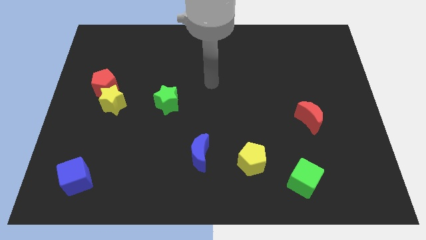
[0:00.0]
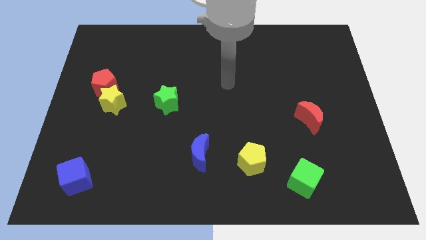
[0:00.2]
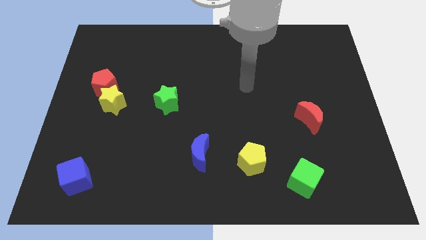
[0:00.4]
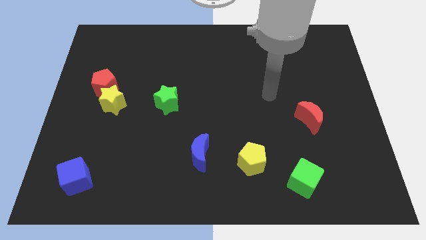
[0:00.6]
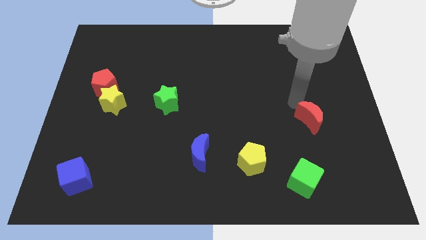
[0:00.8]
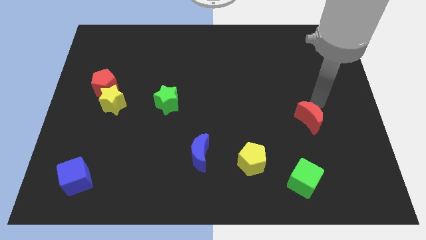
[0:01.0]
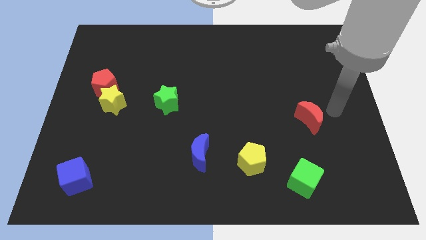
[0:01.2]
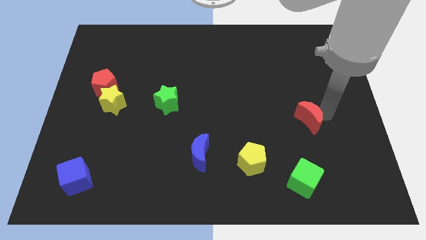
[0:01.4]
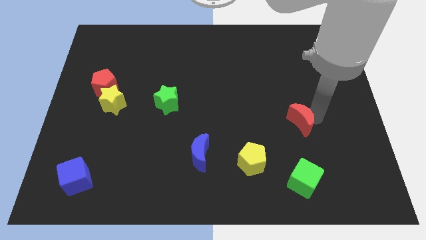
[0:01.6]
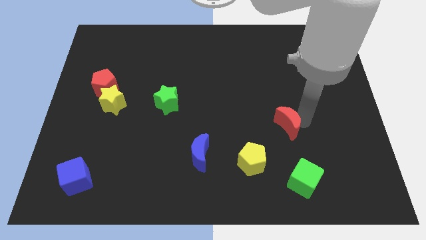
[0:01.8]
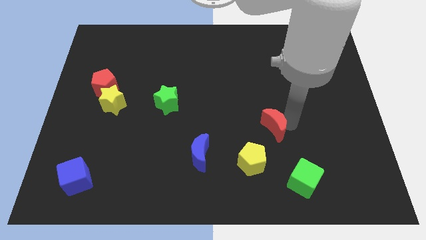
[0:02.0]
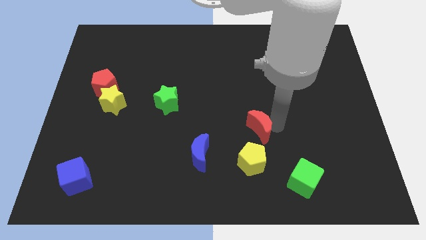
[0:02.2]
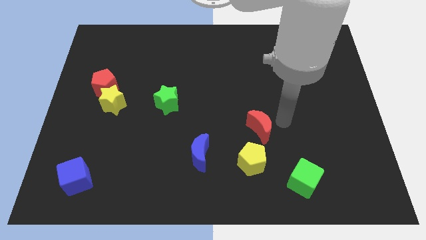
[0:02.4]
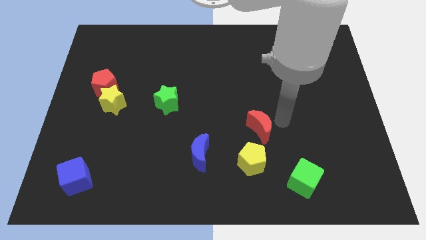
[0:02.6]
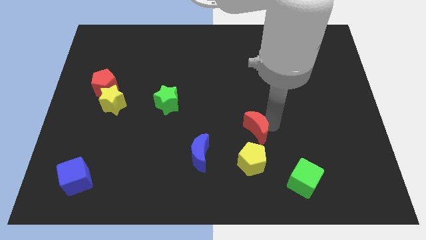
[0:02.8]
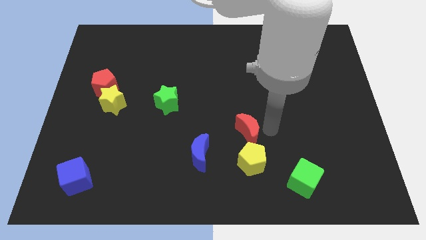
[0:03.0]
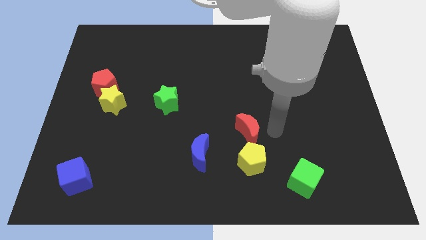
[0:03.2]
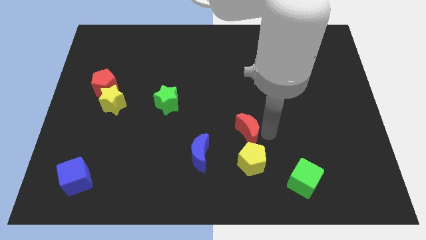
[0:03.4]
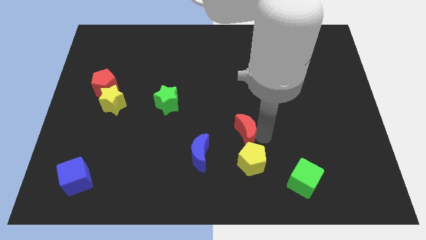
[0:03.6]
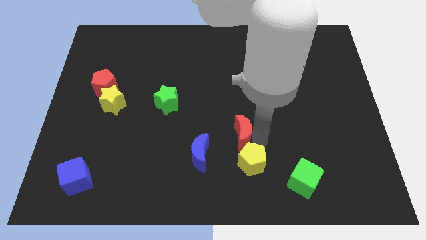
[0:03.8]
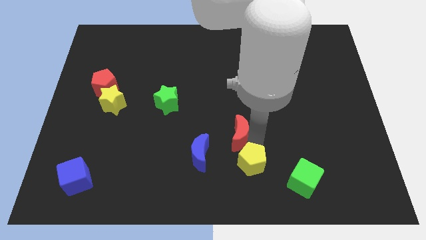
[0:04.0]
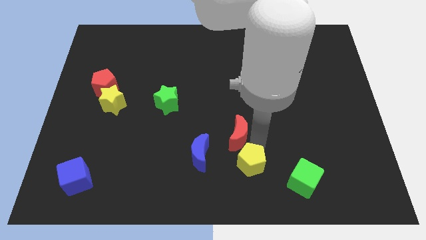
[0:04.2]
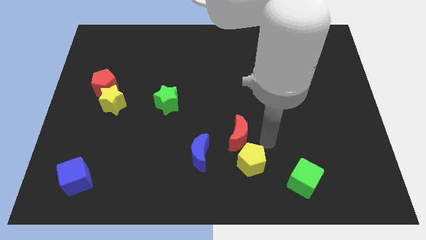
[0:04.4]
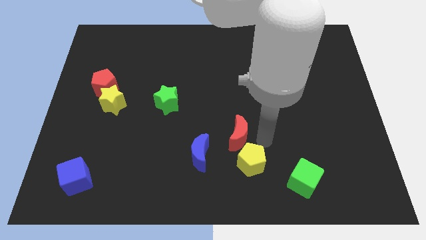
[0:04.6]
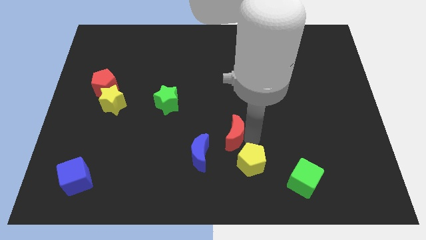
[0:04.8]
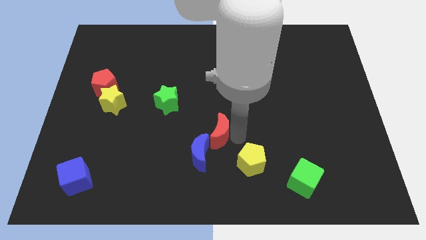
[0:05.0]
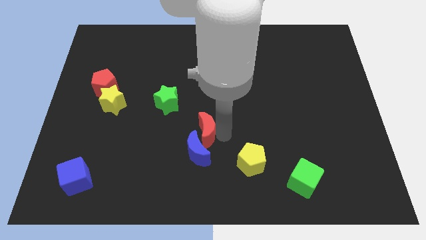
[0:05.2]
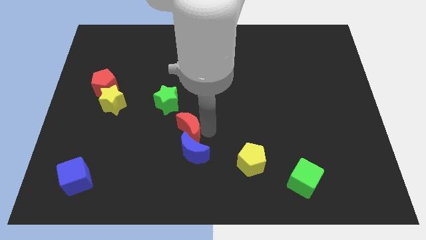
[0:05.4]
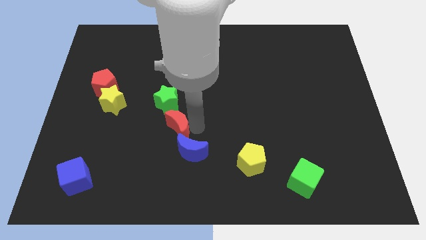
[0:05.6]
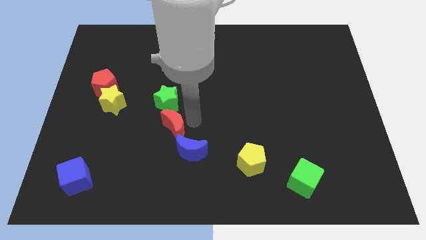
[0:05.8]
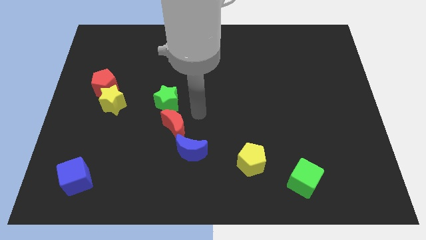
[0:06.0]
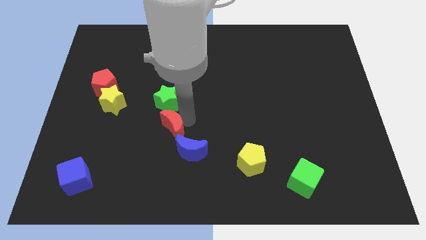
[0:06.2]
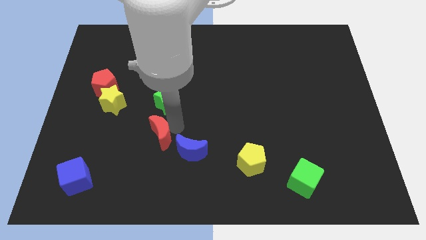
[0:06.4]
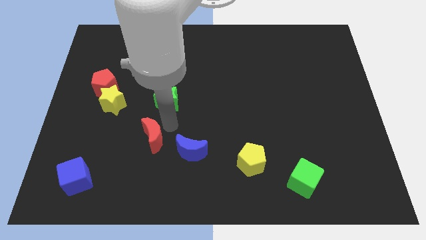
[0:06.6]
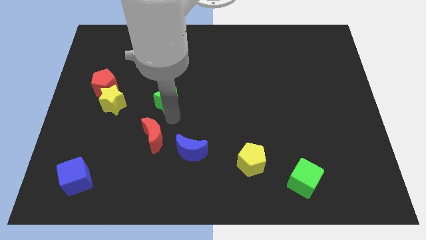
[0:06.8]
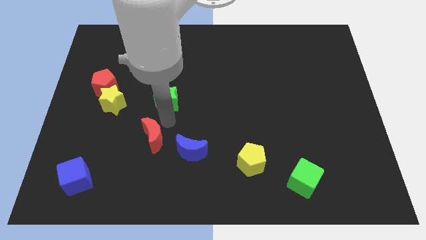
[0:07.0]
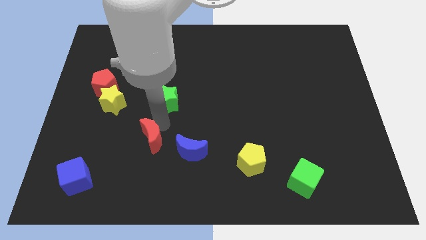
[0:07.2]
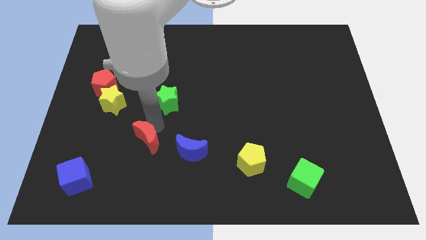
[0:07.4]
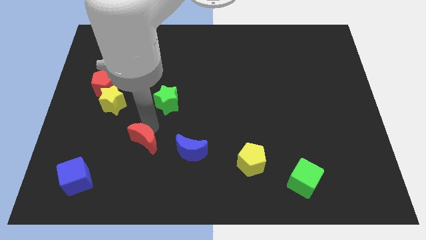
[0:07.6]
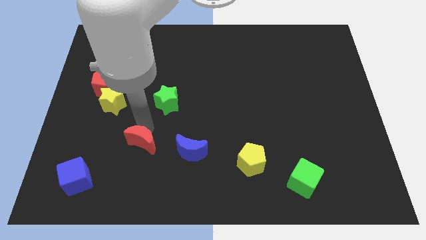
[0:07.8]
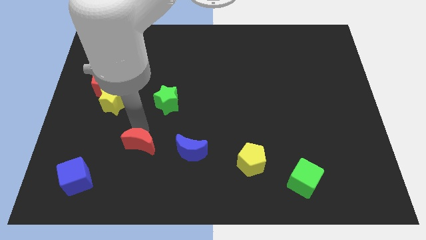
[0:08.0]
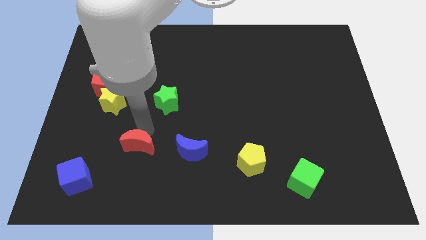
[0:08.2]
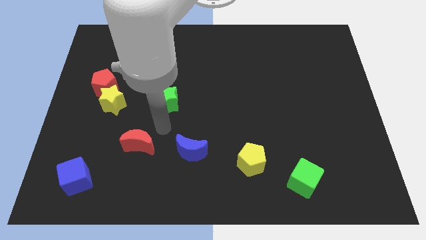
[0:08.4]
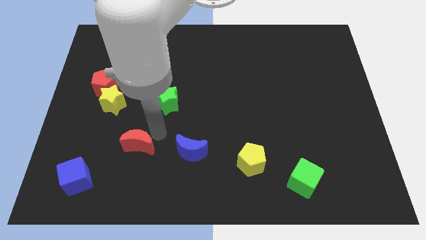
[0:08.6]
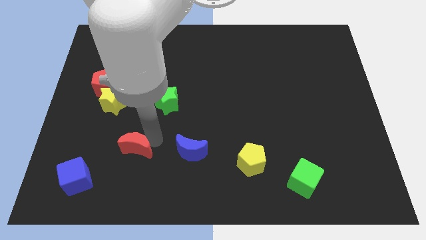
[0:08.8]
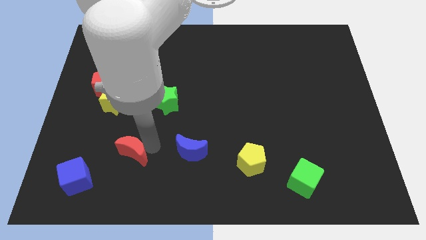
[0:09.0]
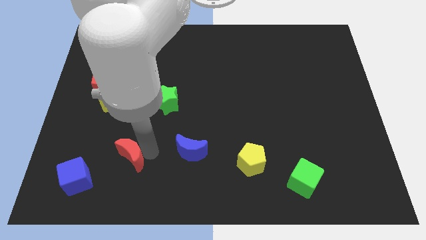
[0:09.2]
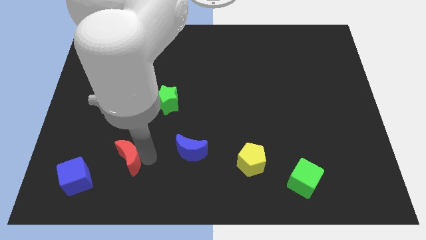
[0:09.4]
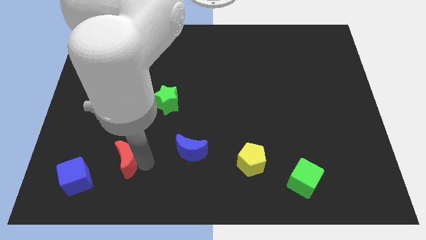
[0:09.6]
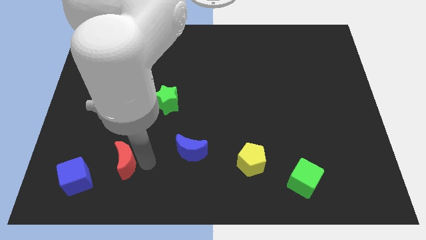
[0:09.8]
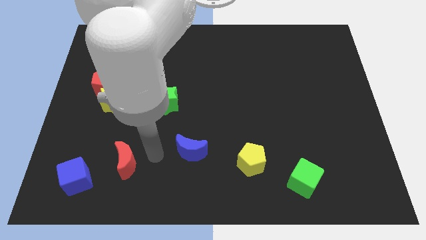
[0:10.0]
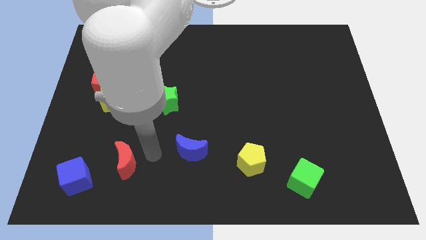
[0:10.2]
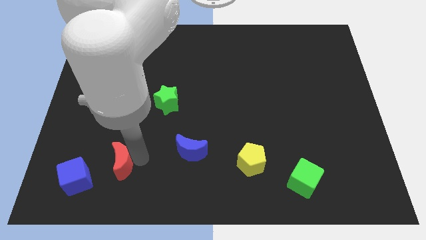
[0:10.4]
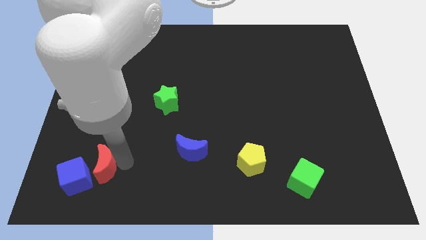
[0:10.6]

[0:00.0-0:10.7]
put the red moon close to the blue cube

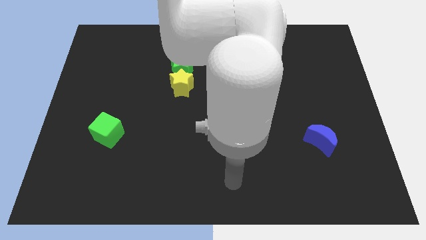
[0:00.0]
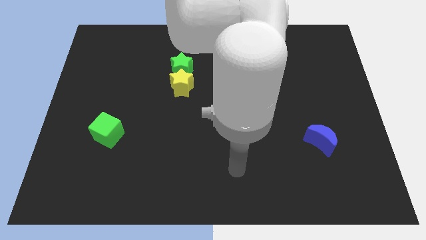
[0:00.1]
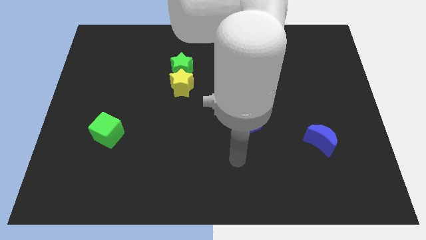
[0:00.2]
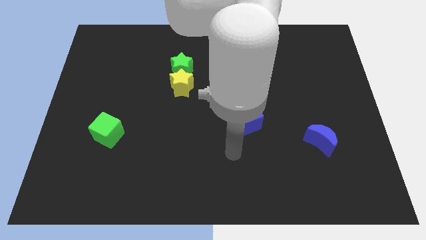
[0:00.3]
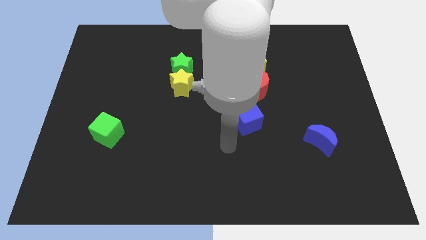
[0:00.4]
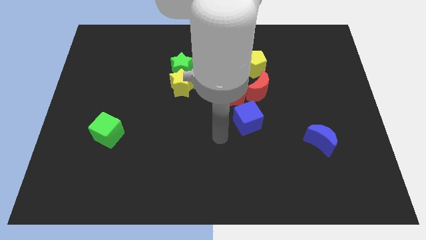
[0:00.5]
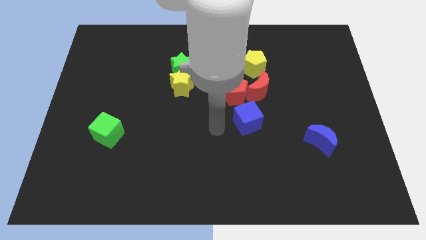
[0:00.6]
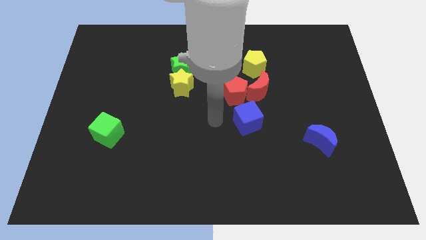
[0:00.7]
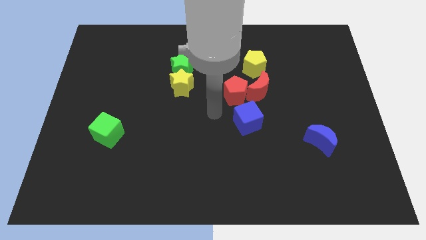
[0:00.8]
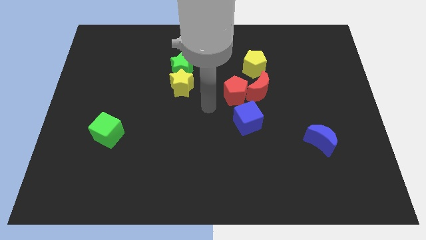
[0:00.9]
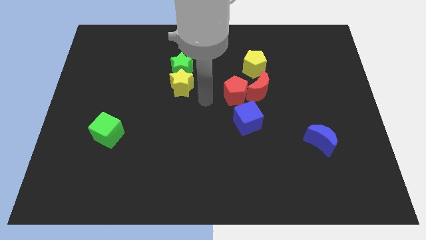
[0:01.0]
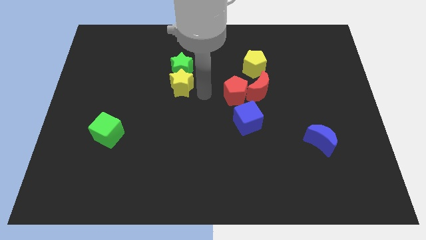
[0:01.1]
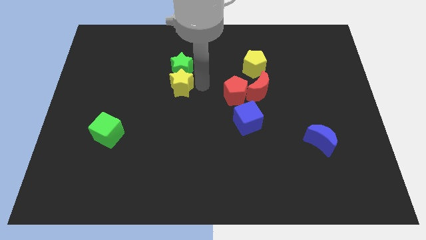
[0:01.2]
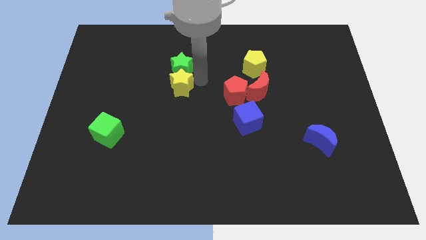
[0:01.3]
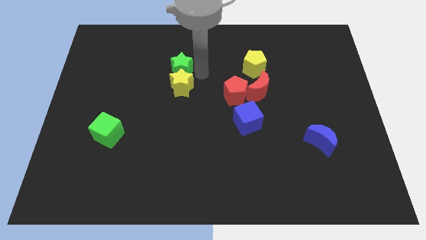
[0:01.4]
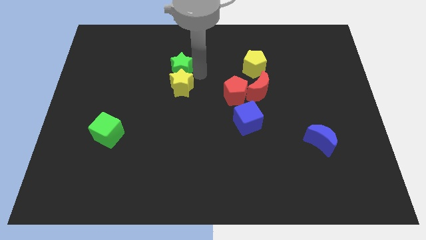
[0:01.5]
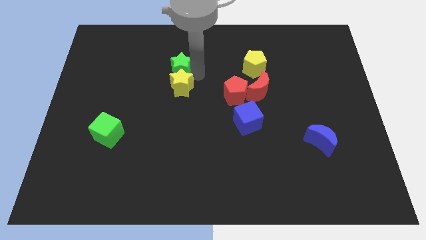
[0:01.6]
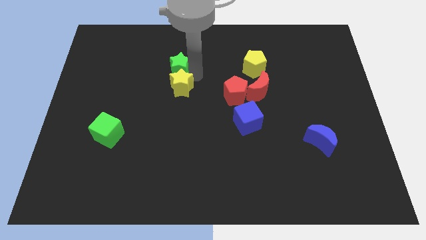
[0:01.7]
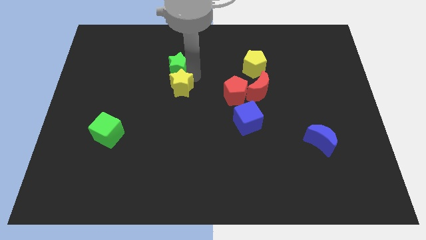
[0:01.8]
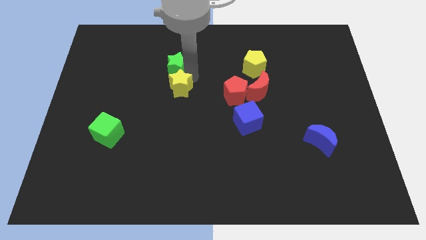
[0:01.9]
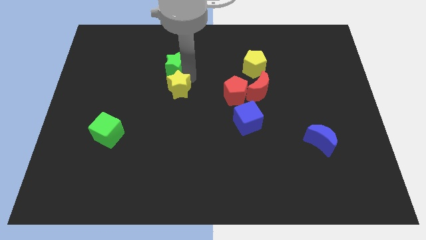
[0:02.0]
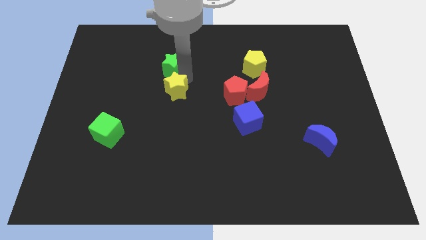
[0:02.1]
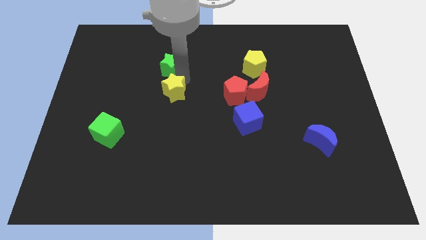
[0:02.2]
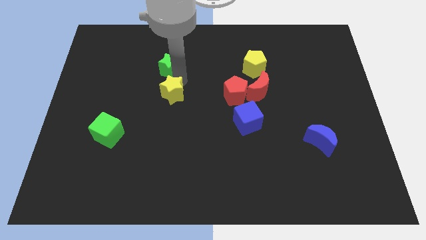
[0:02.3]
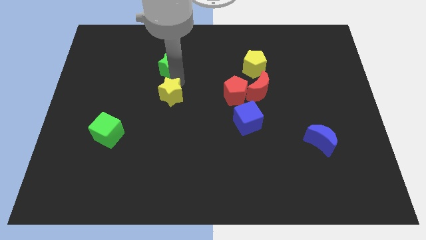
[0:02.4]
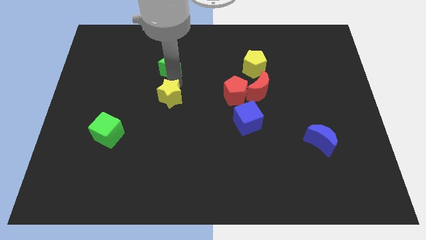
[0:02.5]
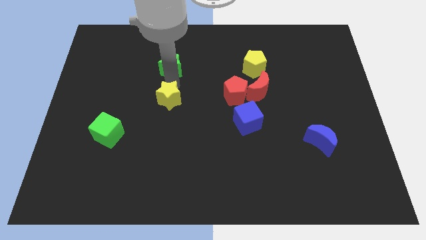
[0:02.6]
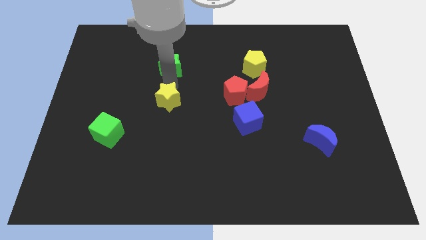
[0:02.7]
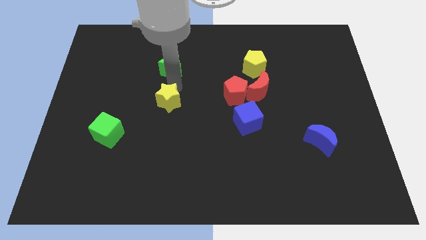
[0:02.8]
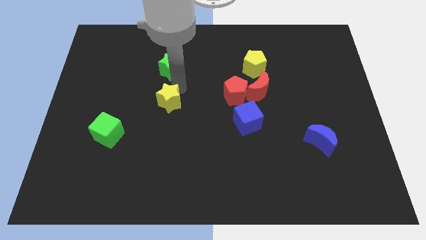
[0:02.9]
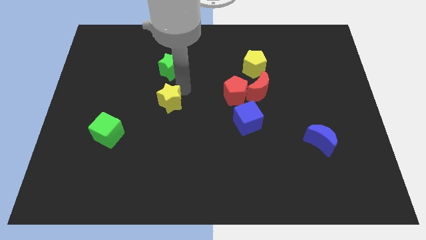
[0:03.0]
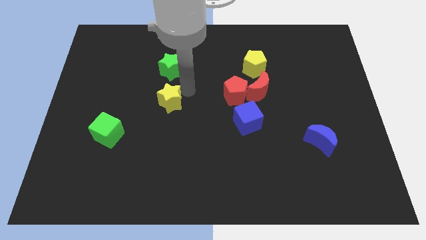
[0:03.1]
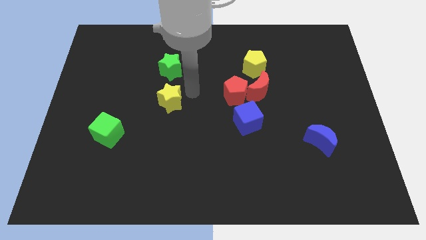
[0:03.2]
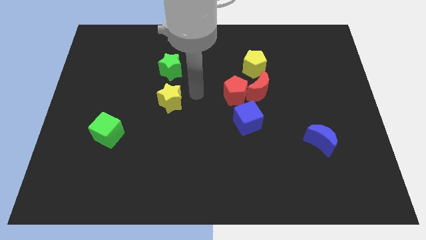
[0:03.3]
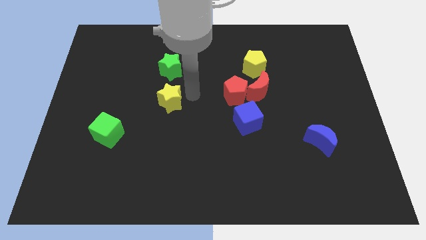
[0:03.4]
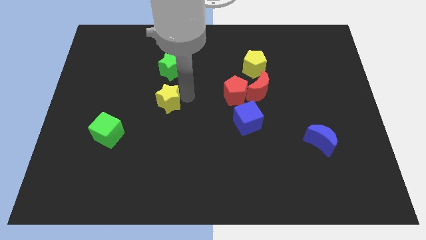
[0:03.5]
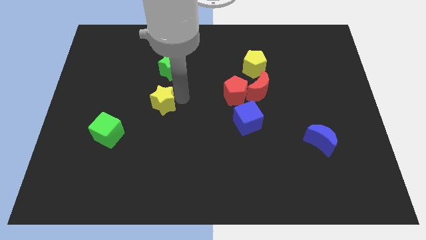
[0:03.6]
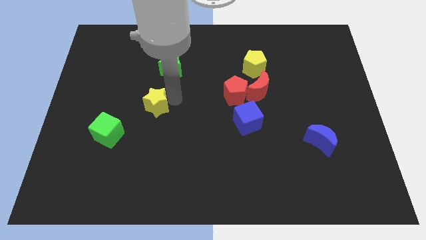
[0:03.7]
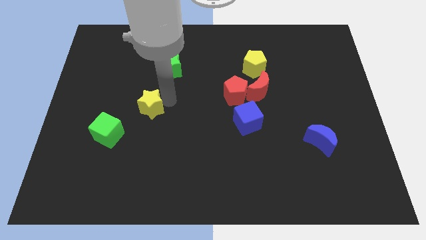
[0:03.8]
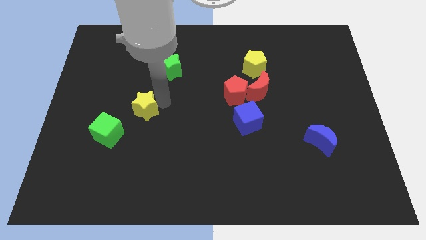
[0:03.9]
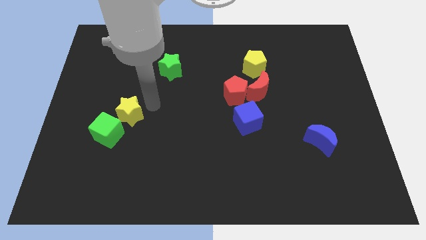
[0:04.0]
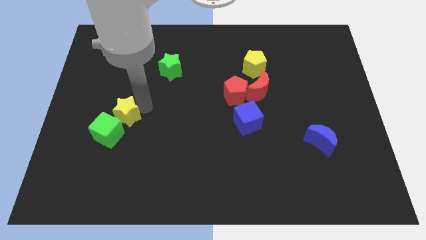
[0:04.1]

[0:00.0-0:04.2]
move the yellow star towards the green cube
